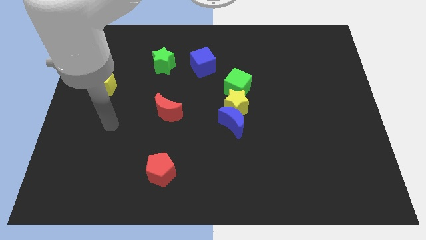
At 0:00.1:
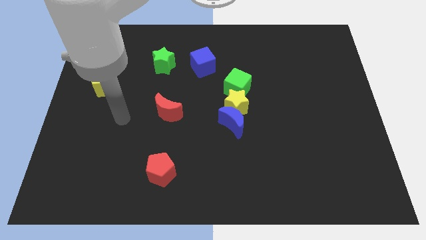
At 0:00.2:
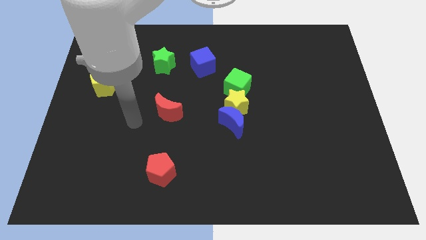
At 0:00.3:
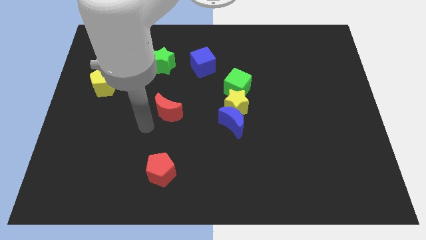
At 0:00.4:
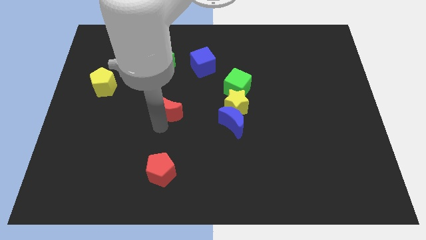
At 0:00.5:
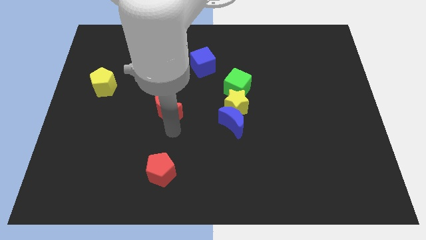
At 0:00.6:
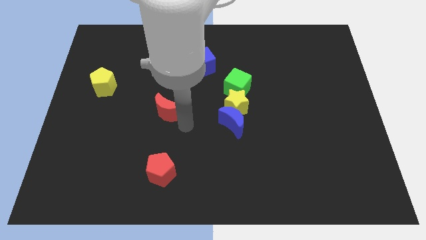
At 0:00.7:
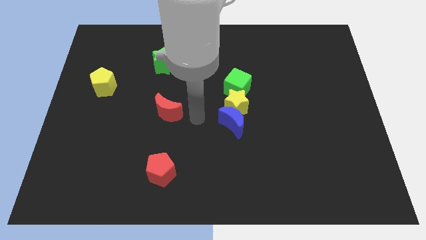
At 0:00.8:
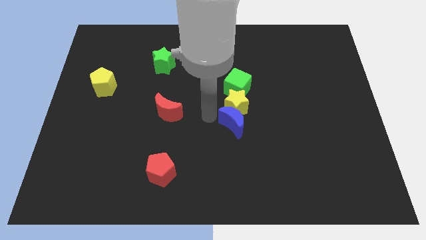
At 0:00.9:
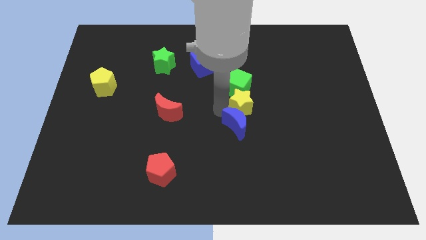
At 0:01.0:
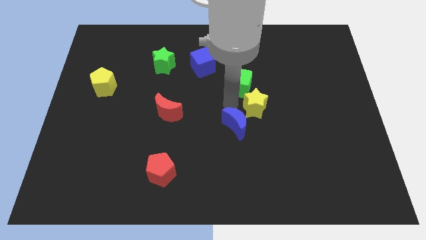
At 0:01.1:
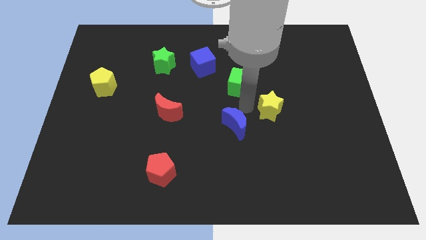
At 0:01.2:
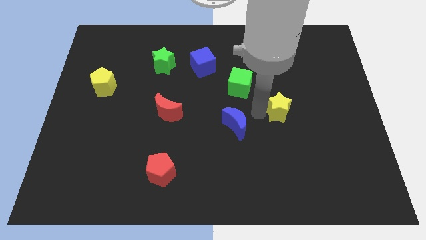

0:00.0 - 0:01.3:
separate the blue moon from the yellow star

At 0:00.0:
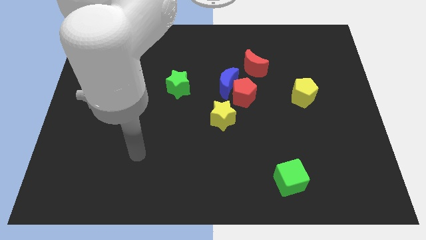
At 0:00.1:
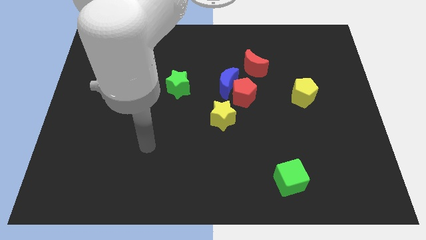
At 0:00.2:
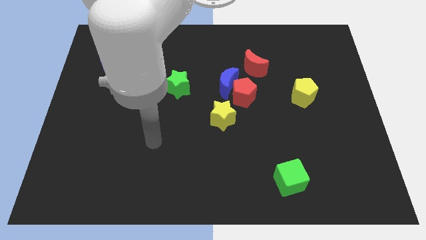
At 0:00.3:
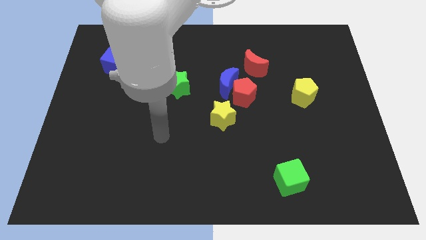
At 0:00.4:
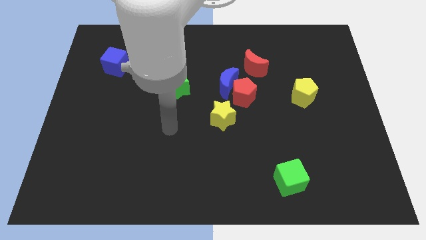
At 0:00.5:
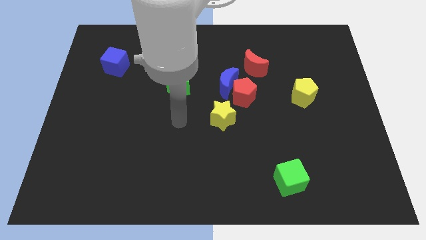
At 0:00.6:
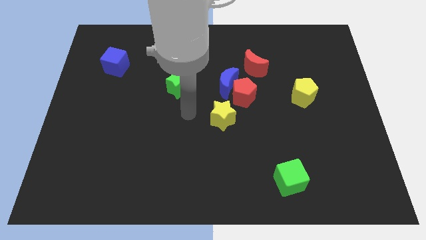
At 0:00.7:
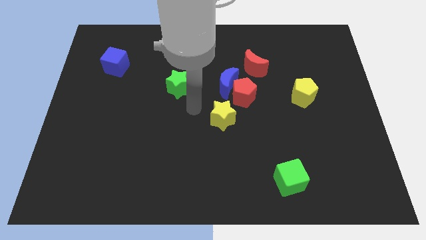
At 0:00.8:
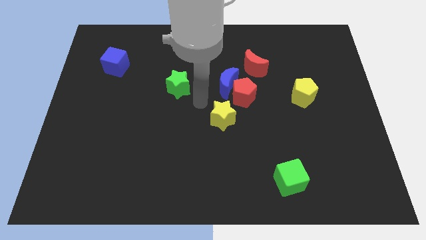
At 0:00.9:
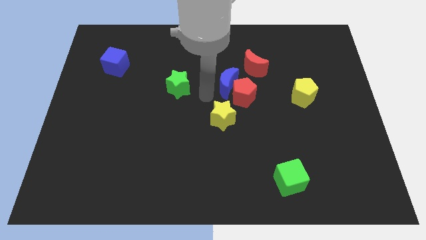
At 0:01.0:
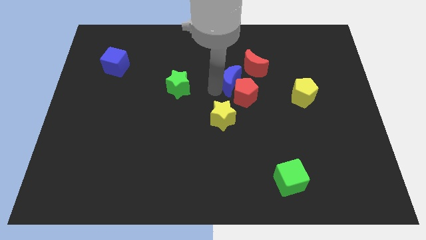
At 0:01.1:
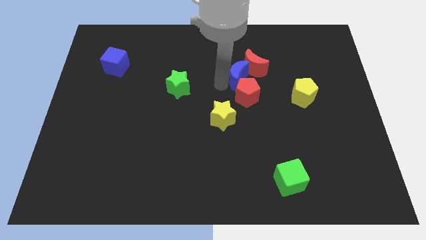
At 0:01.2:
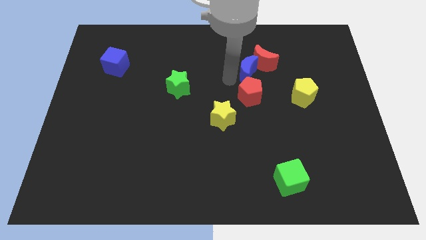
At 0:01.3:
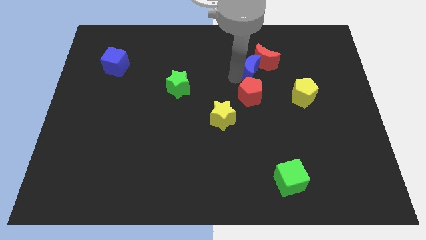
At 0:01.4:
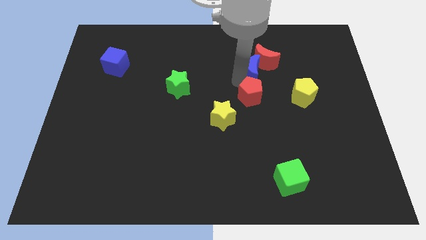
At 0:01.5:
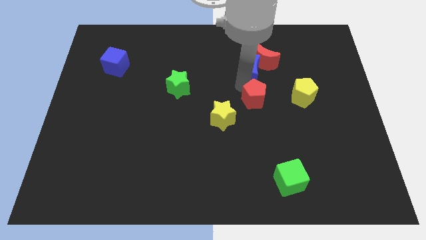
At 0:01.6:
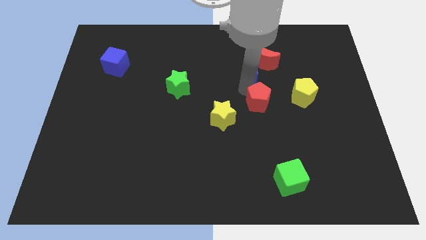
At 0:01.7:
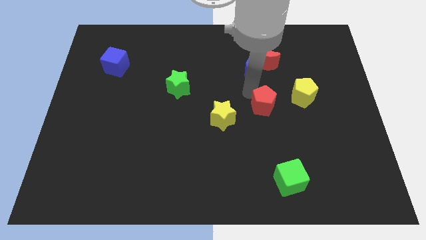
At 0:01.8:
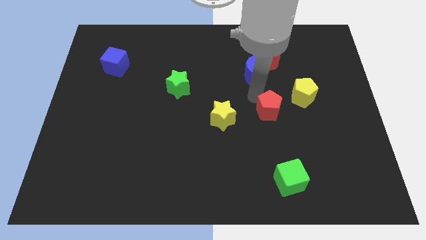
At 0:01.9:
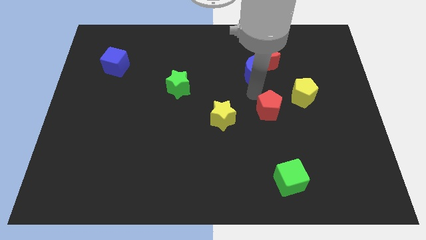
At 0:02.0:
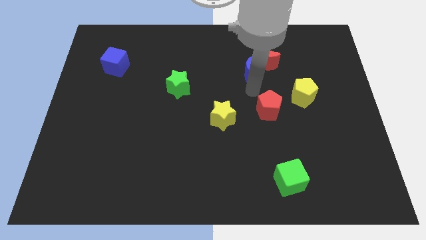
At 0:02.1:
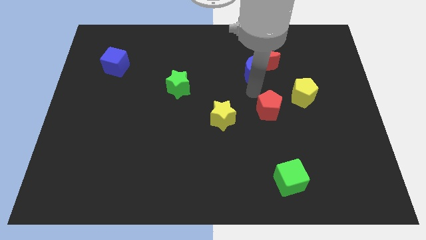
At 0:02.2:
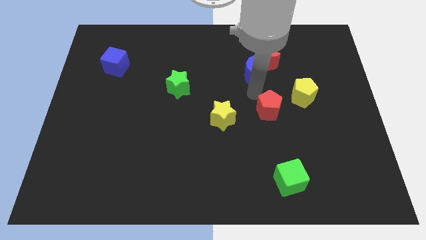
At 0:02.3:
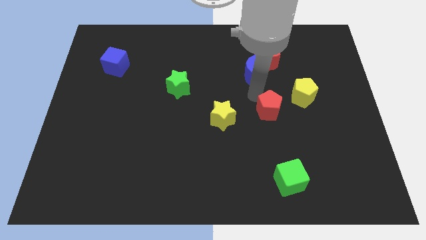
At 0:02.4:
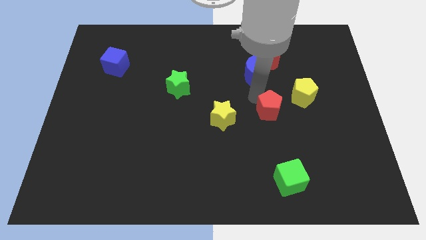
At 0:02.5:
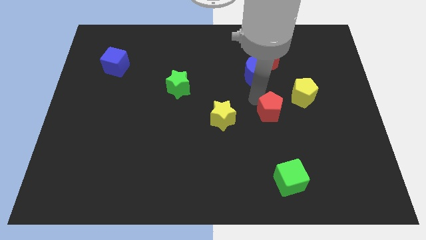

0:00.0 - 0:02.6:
separate the red pentagon from the blue moon, yellow star, and red moon

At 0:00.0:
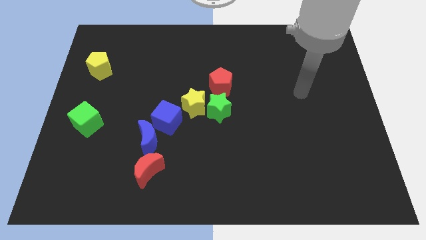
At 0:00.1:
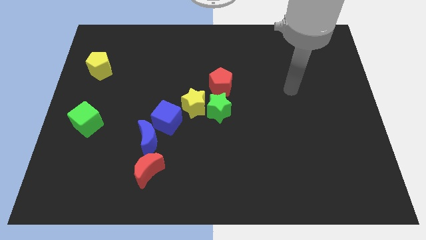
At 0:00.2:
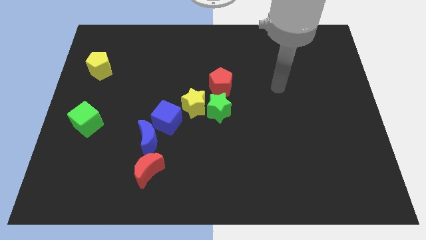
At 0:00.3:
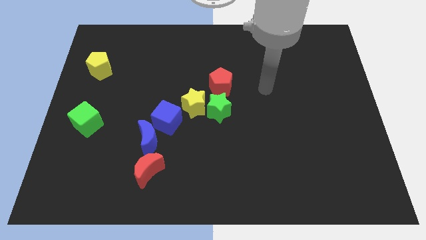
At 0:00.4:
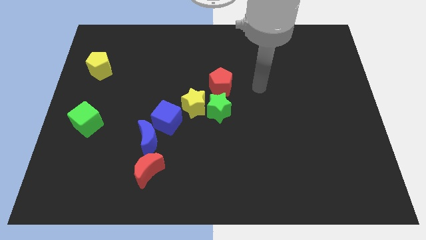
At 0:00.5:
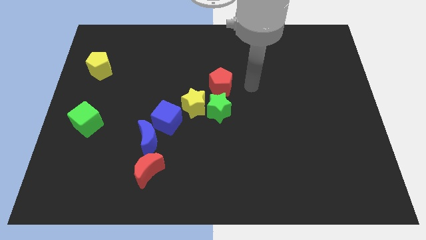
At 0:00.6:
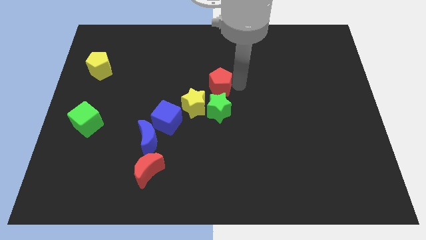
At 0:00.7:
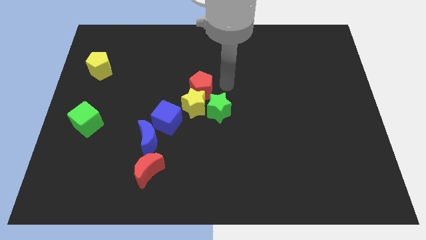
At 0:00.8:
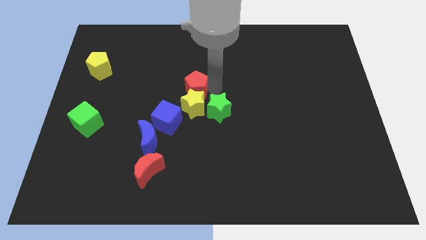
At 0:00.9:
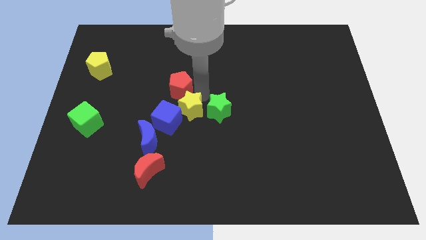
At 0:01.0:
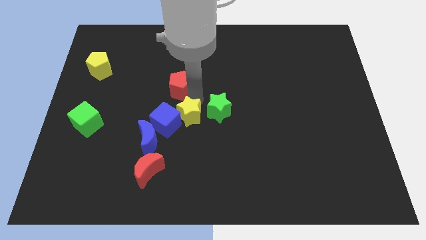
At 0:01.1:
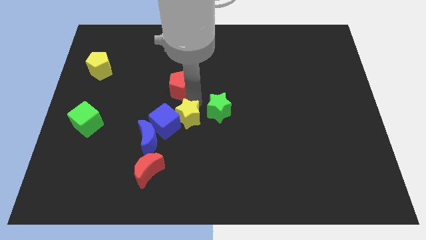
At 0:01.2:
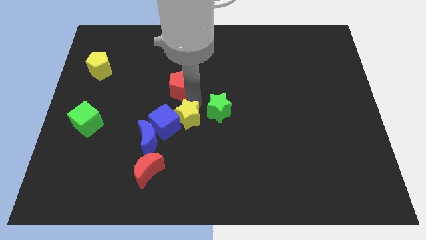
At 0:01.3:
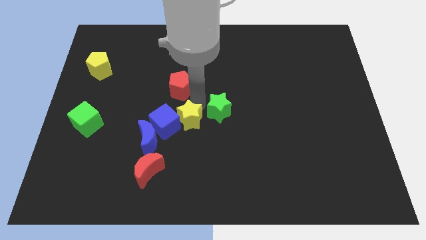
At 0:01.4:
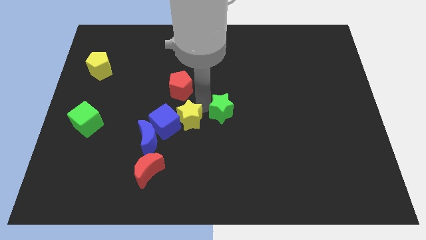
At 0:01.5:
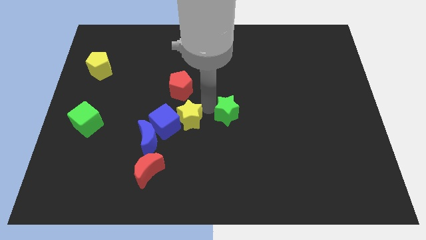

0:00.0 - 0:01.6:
separate the green star from the yellow star and red pentagon

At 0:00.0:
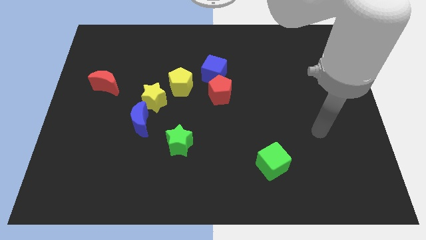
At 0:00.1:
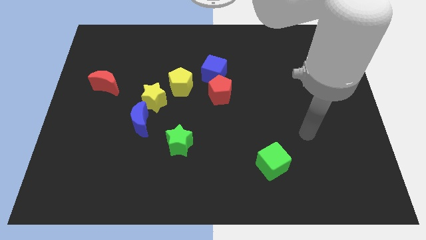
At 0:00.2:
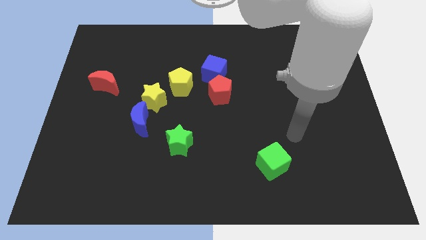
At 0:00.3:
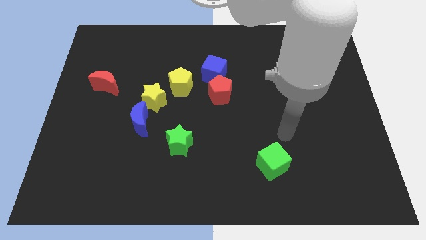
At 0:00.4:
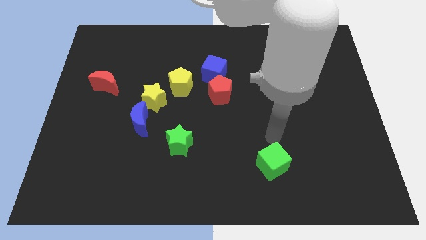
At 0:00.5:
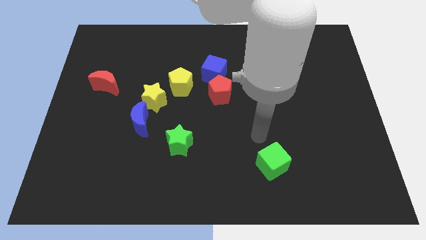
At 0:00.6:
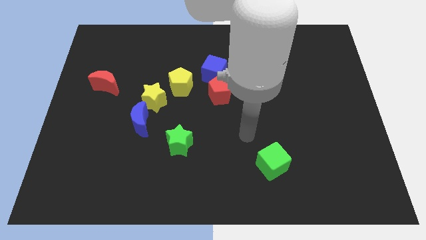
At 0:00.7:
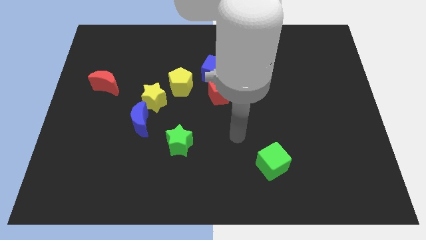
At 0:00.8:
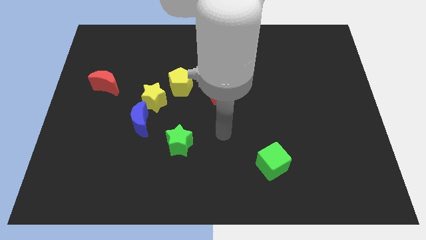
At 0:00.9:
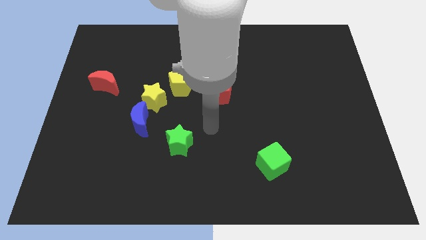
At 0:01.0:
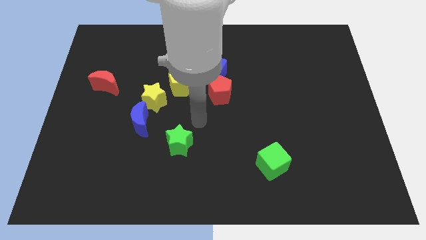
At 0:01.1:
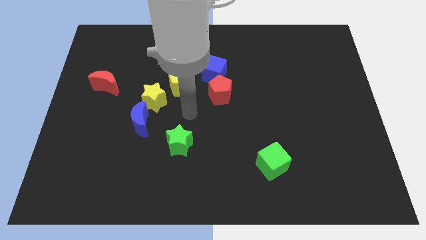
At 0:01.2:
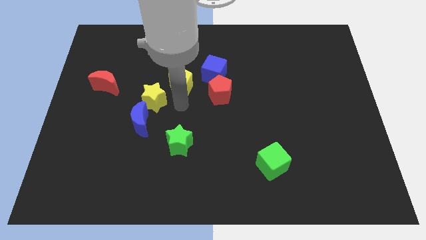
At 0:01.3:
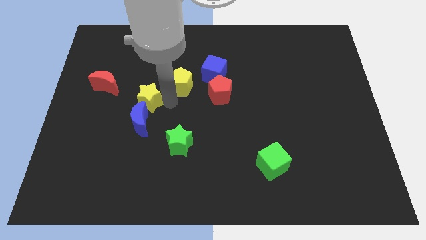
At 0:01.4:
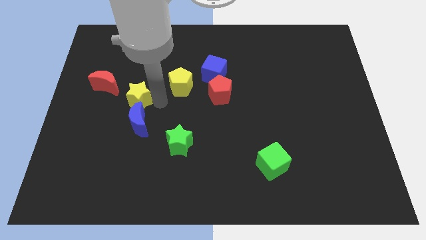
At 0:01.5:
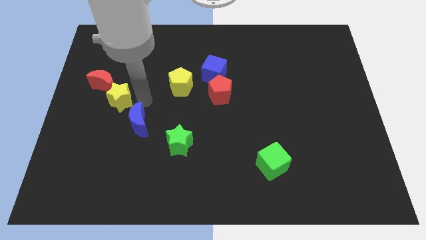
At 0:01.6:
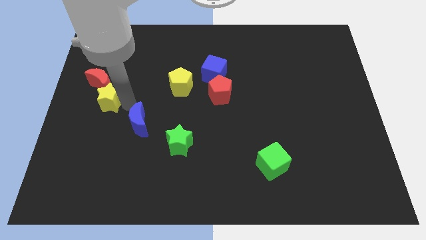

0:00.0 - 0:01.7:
move the blue moon away from the yellow star

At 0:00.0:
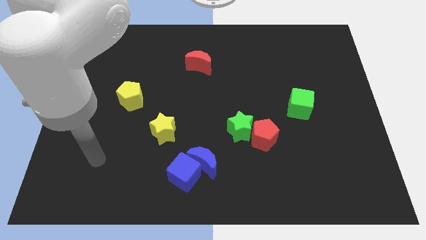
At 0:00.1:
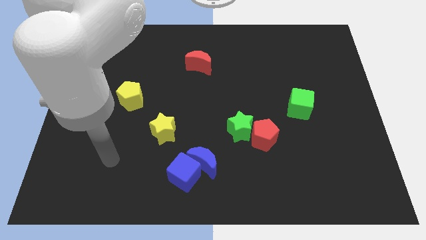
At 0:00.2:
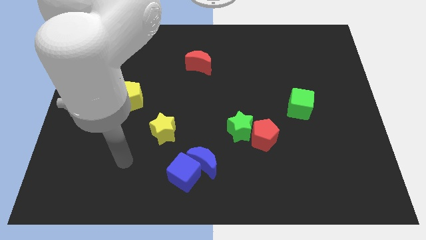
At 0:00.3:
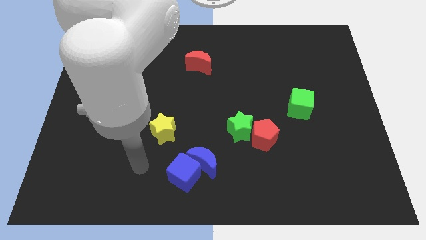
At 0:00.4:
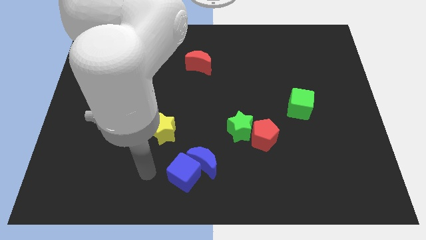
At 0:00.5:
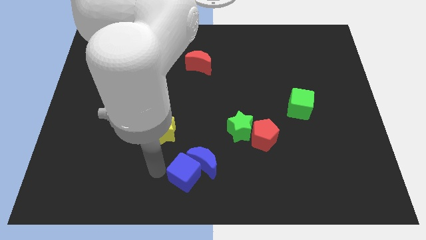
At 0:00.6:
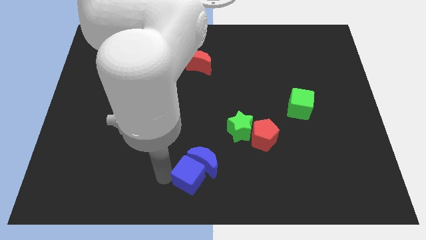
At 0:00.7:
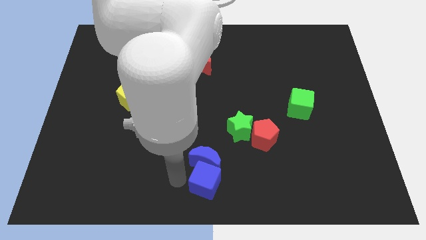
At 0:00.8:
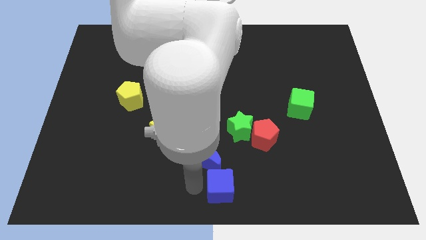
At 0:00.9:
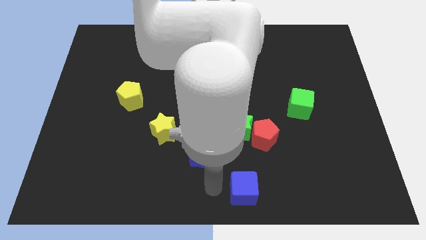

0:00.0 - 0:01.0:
separate the blue moon from the blue cube

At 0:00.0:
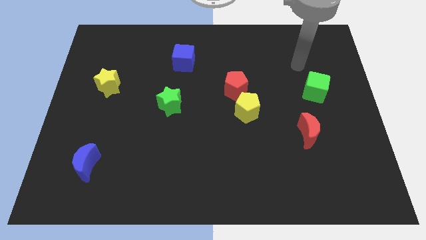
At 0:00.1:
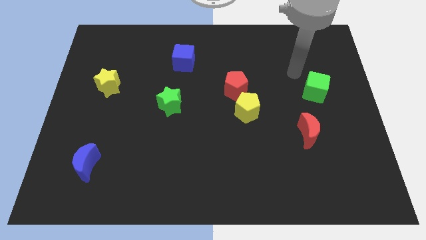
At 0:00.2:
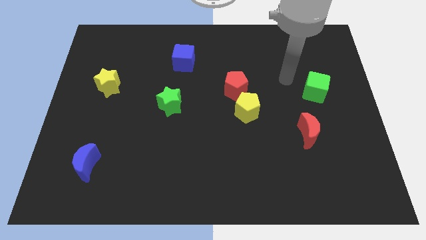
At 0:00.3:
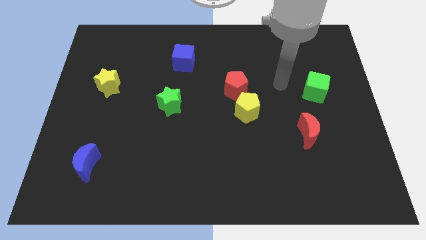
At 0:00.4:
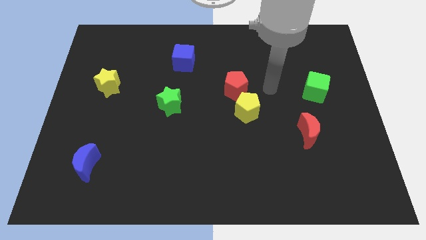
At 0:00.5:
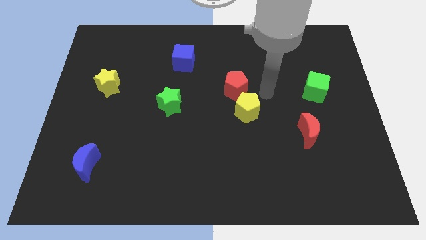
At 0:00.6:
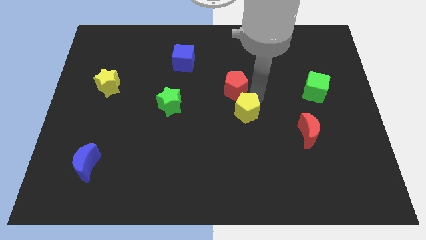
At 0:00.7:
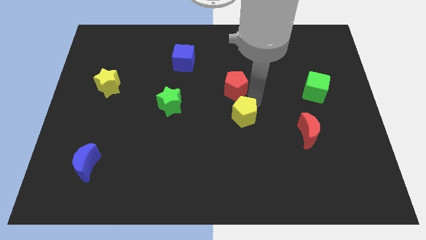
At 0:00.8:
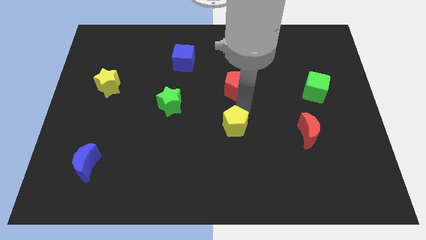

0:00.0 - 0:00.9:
pull the red pentagon apart from the yellow pentagon

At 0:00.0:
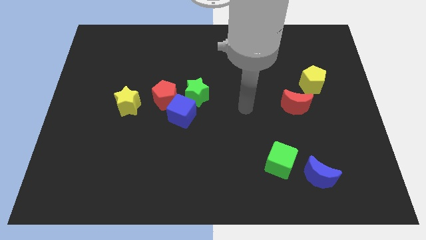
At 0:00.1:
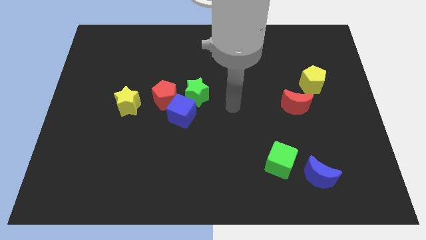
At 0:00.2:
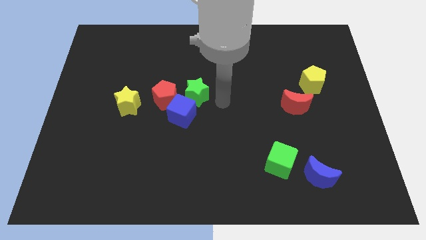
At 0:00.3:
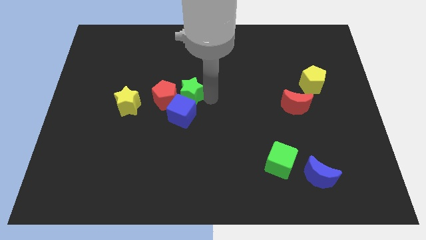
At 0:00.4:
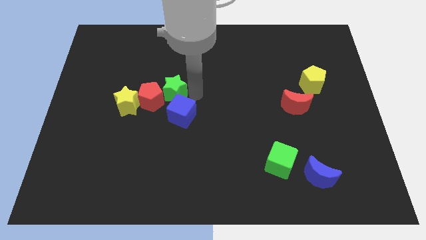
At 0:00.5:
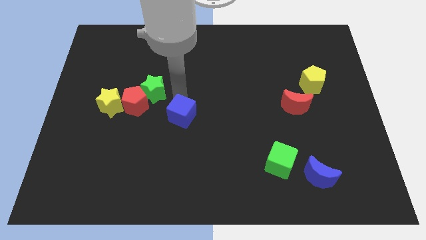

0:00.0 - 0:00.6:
move the blue cube away from the red pentagon and green star
